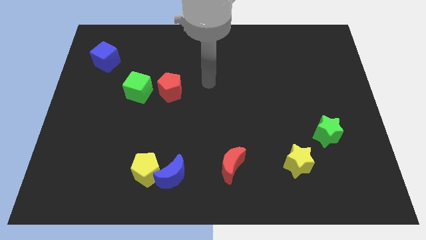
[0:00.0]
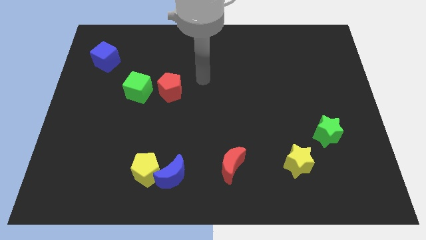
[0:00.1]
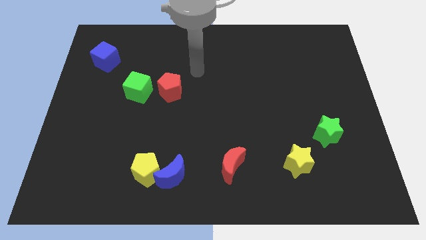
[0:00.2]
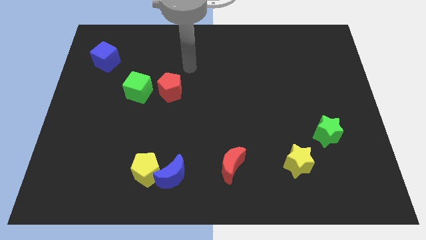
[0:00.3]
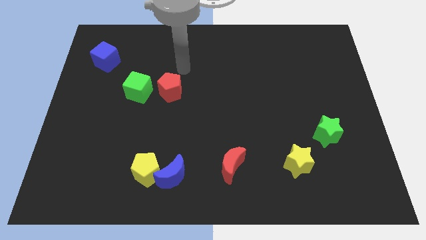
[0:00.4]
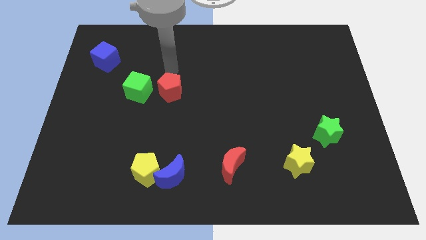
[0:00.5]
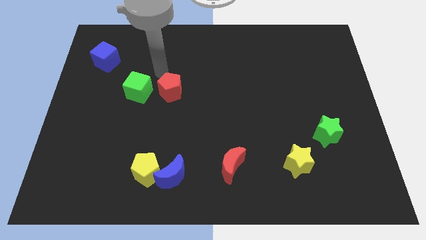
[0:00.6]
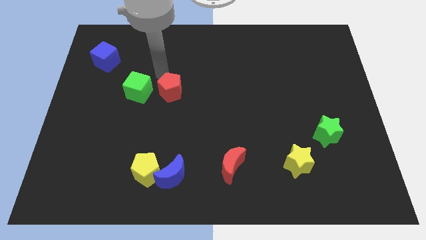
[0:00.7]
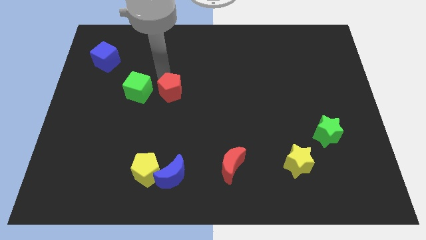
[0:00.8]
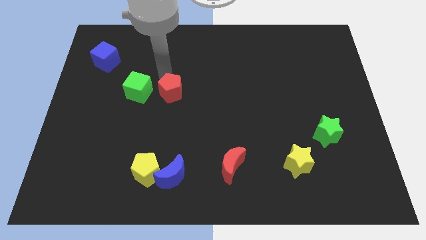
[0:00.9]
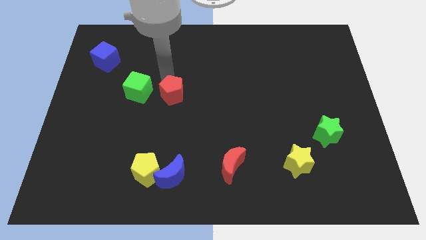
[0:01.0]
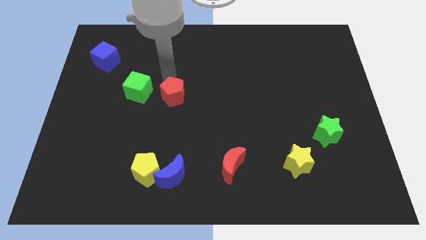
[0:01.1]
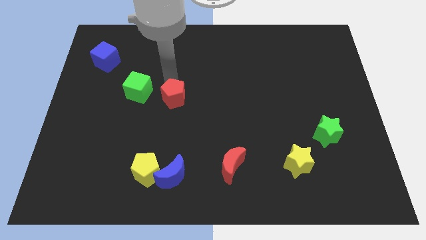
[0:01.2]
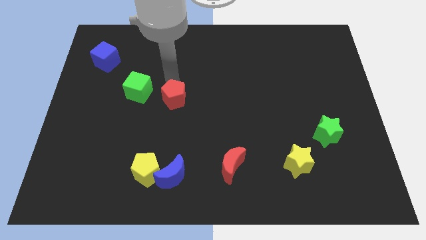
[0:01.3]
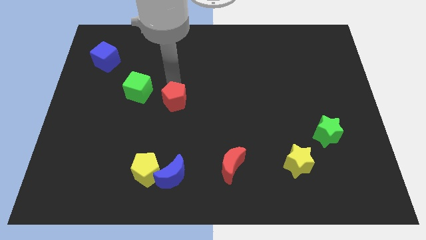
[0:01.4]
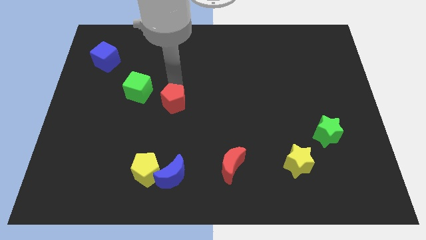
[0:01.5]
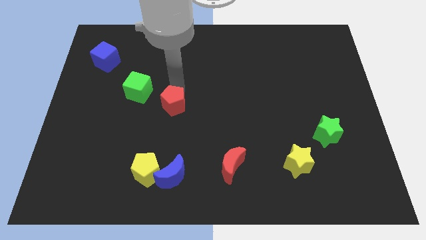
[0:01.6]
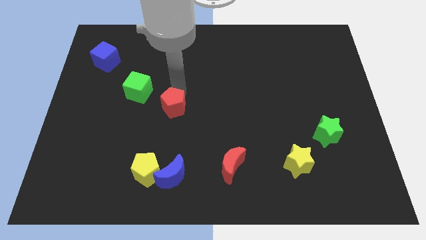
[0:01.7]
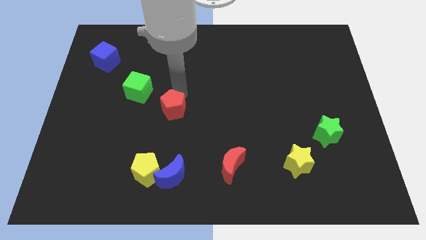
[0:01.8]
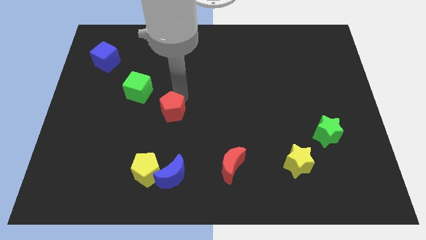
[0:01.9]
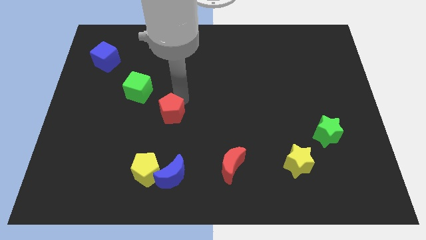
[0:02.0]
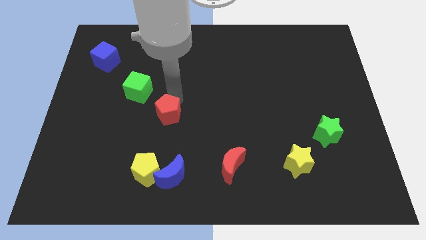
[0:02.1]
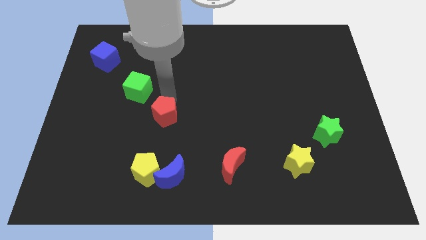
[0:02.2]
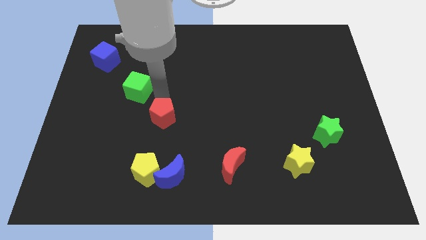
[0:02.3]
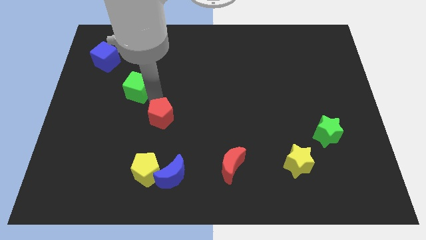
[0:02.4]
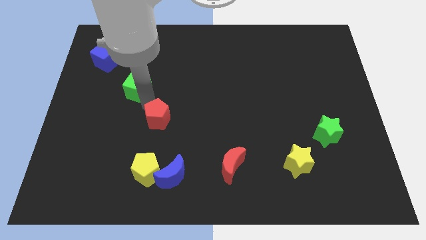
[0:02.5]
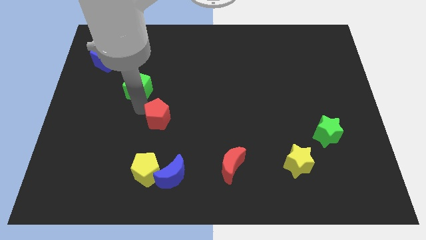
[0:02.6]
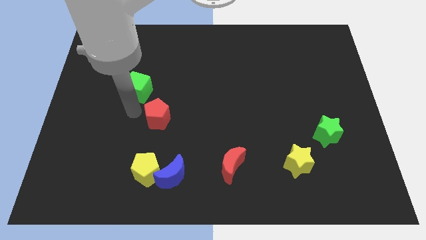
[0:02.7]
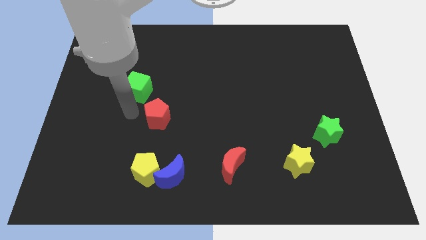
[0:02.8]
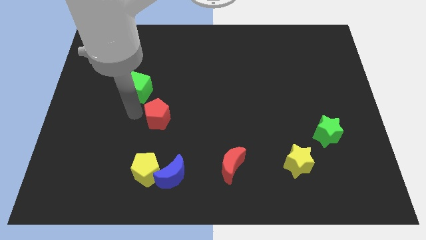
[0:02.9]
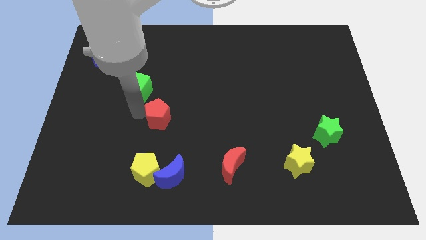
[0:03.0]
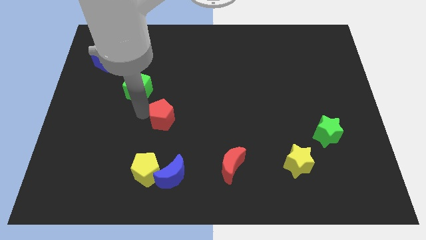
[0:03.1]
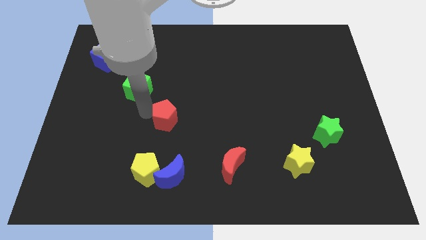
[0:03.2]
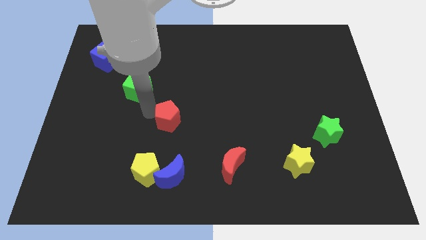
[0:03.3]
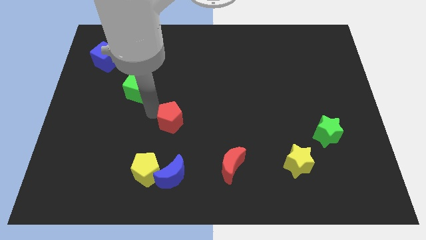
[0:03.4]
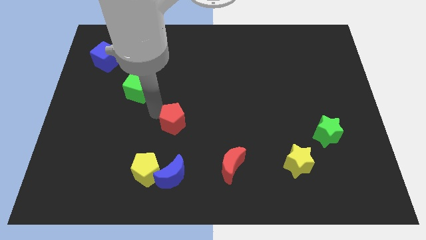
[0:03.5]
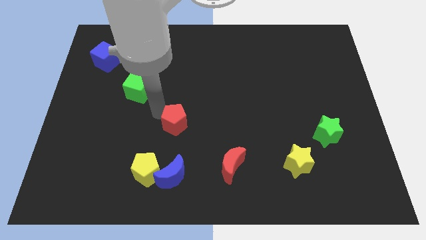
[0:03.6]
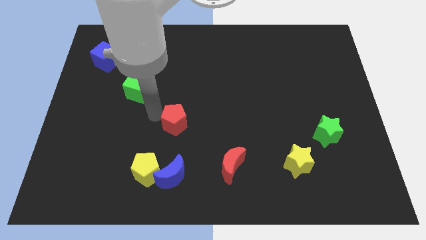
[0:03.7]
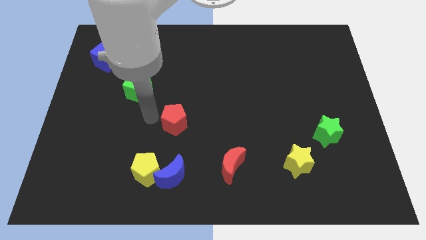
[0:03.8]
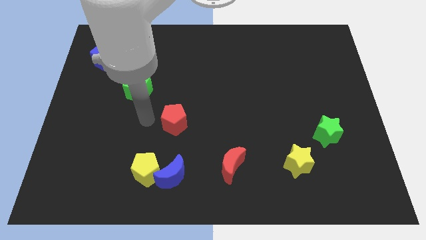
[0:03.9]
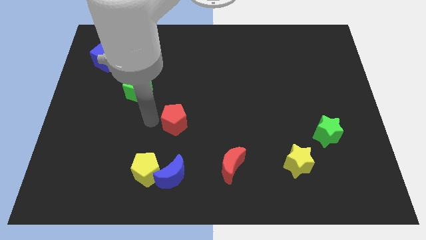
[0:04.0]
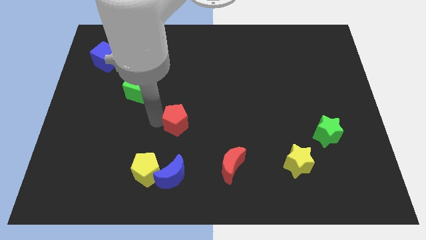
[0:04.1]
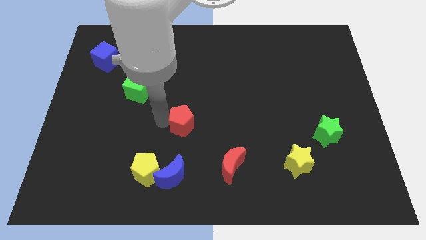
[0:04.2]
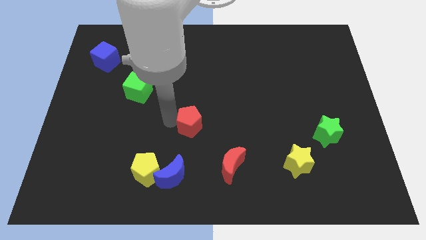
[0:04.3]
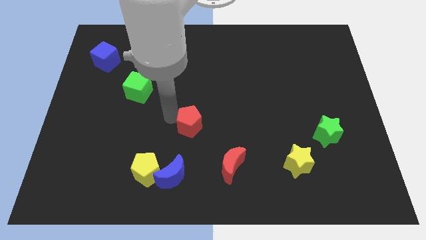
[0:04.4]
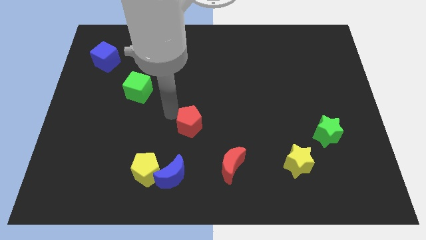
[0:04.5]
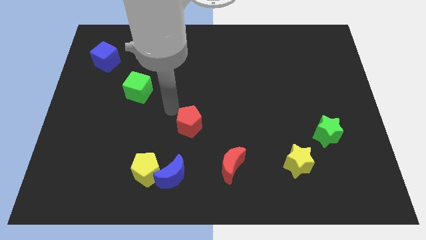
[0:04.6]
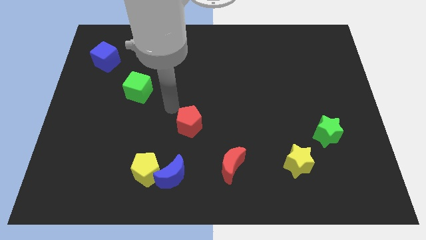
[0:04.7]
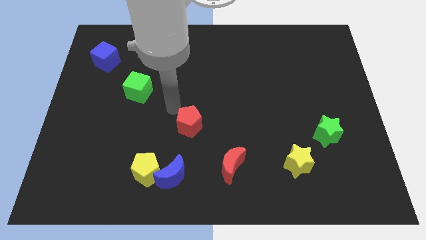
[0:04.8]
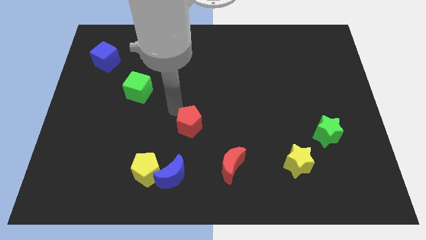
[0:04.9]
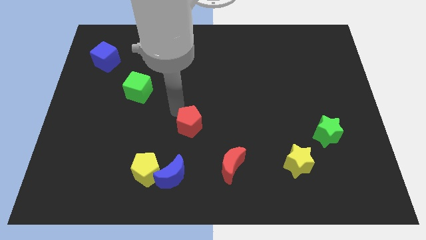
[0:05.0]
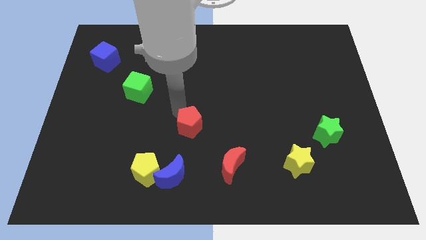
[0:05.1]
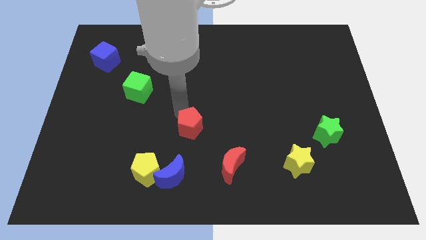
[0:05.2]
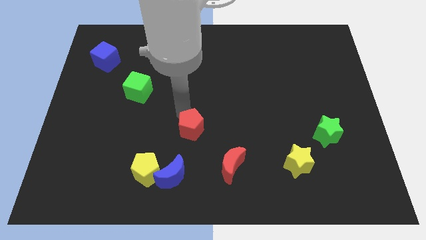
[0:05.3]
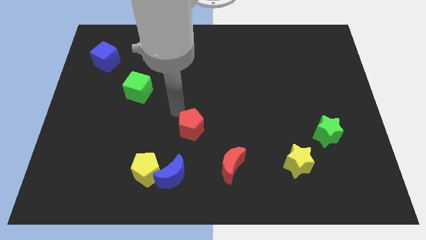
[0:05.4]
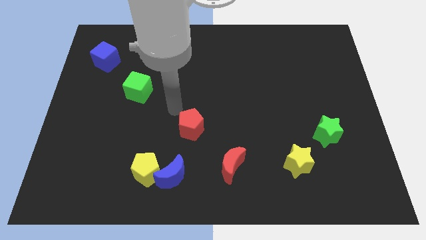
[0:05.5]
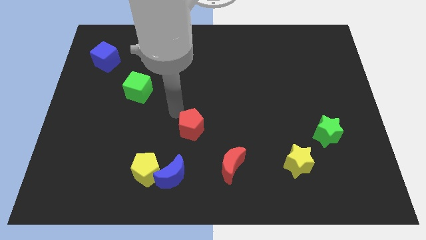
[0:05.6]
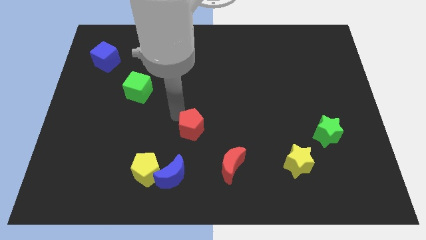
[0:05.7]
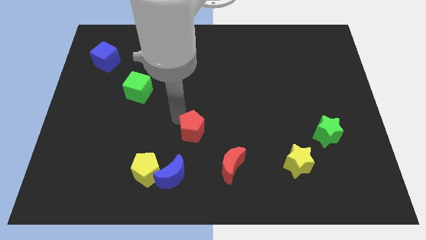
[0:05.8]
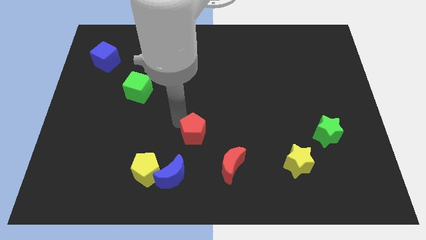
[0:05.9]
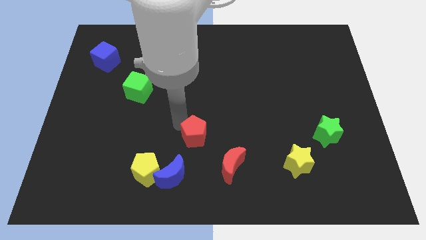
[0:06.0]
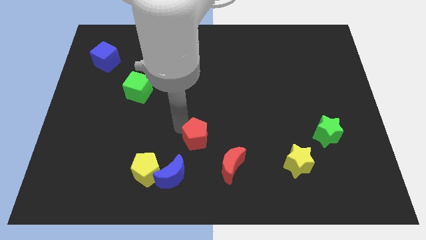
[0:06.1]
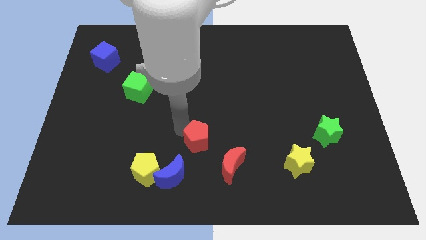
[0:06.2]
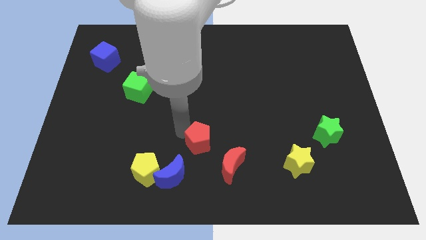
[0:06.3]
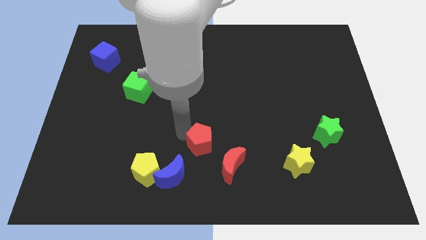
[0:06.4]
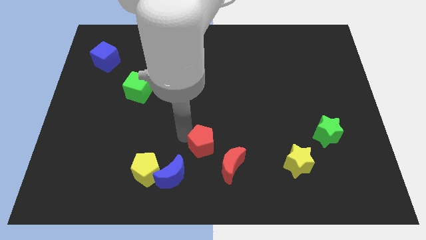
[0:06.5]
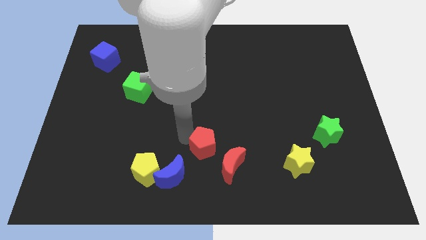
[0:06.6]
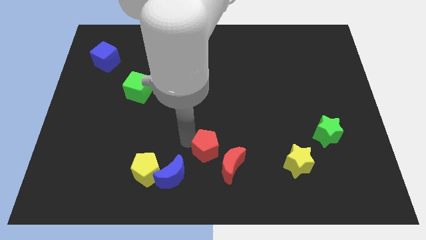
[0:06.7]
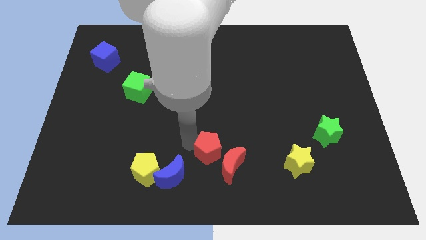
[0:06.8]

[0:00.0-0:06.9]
put the red pentagon towards the red moon
